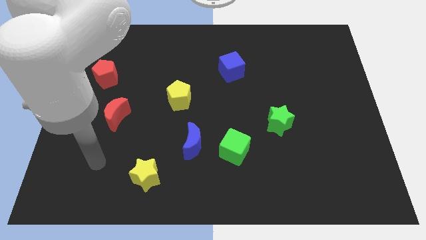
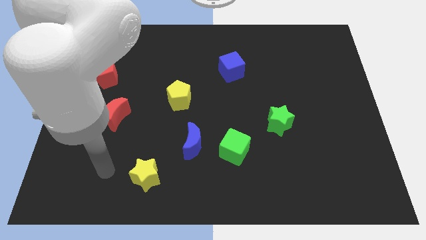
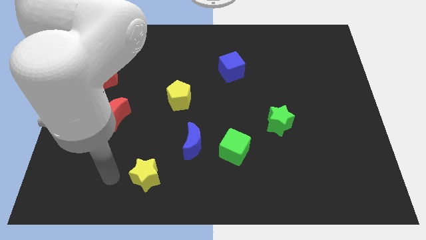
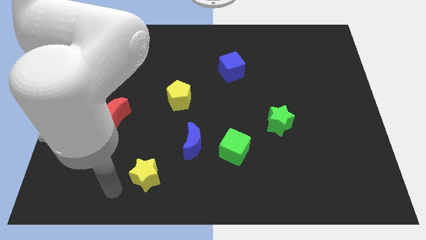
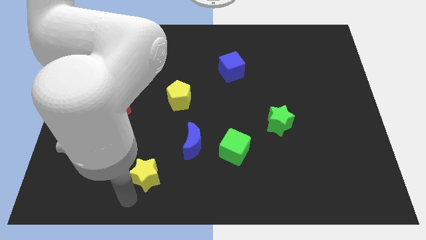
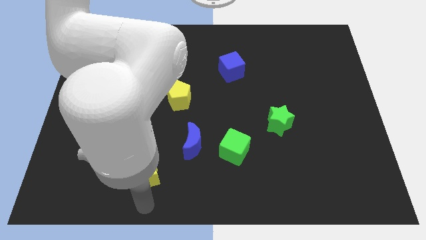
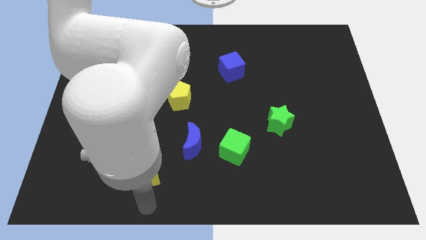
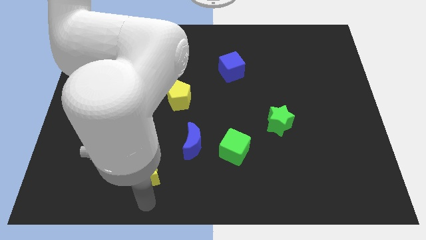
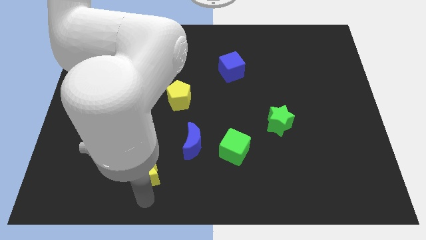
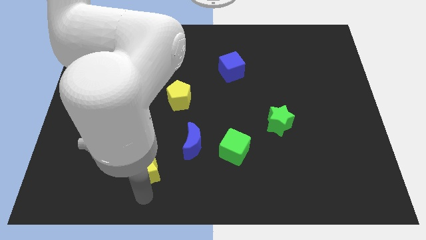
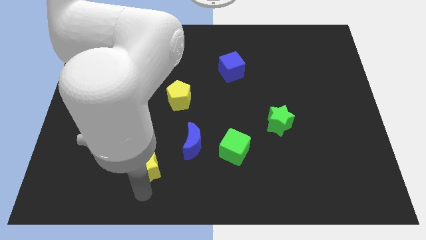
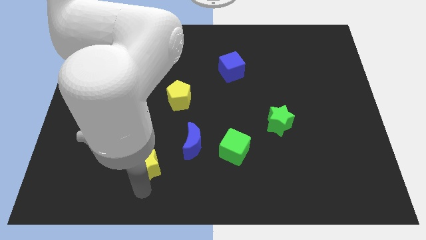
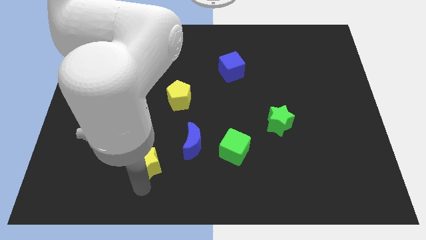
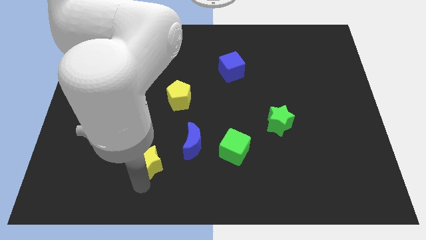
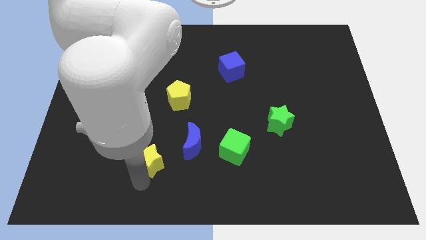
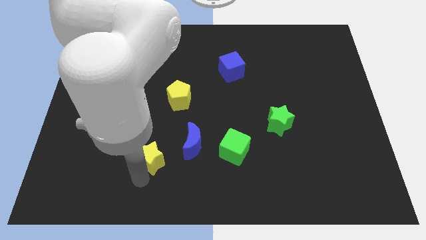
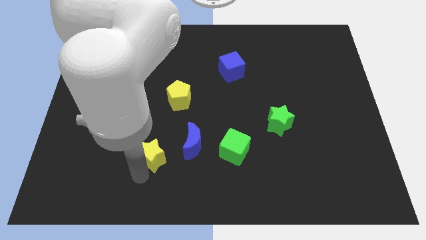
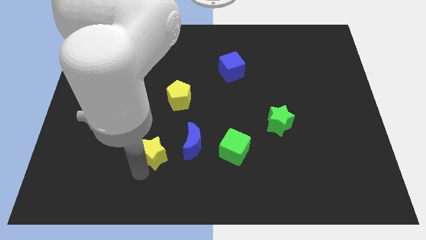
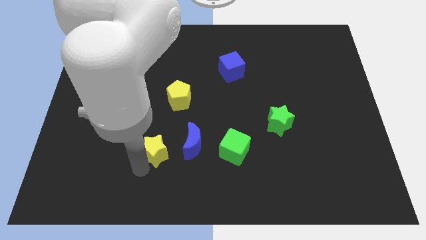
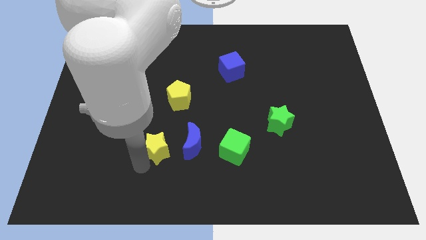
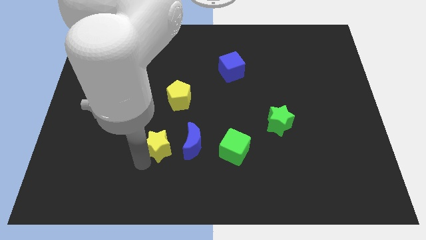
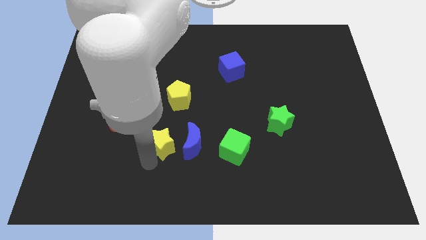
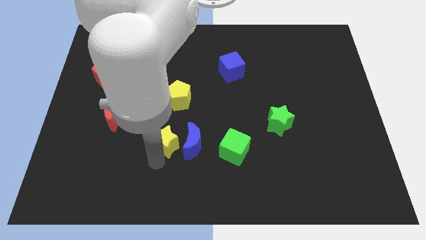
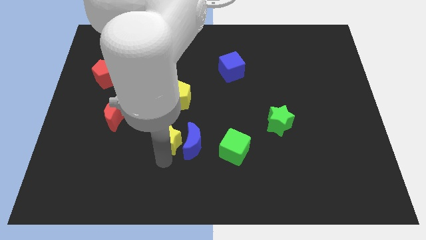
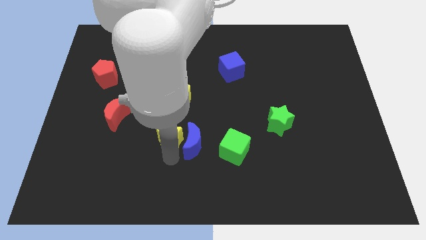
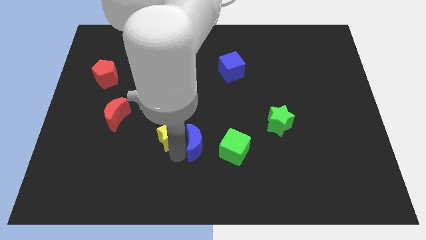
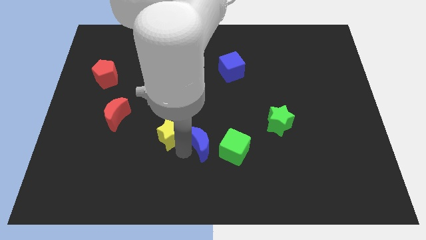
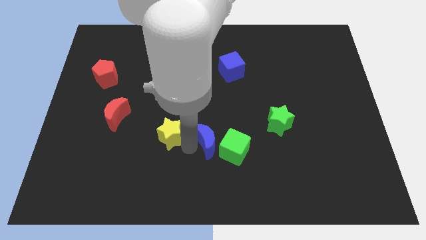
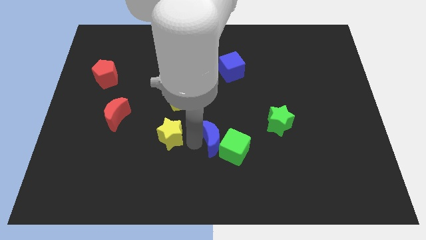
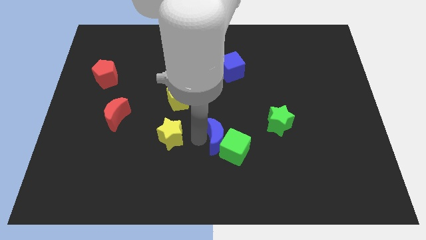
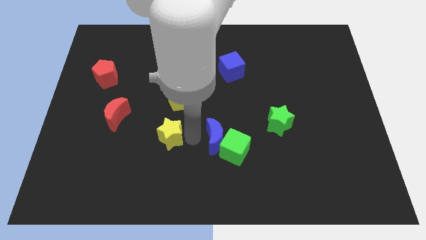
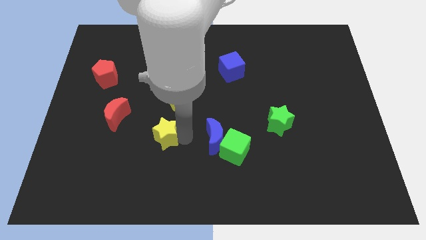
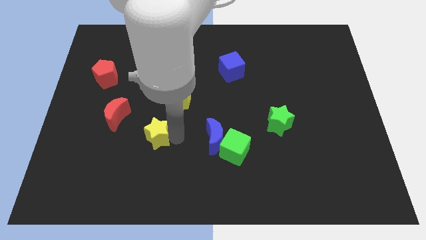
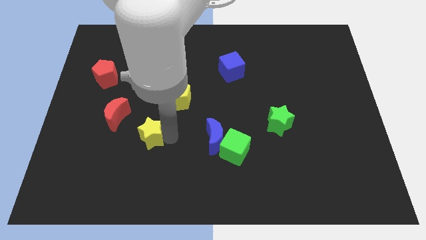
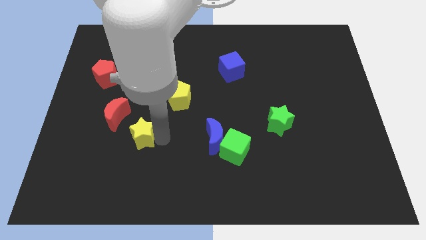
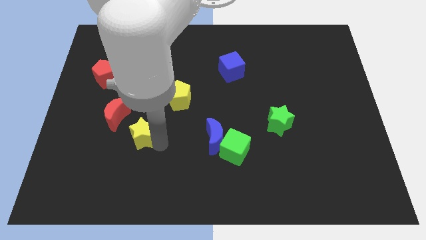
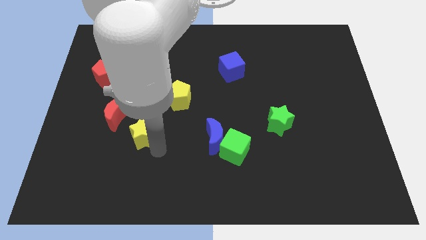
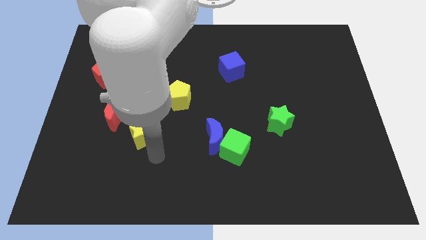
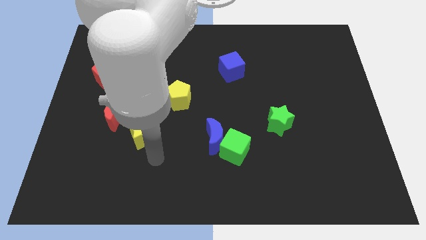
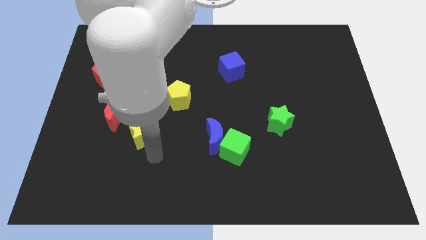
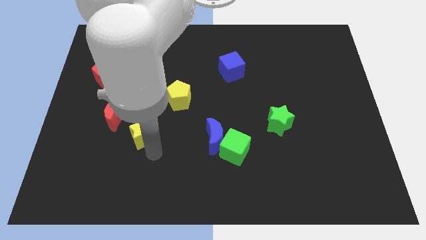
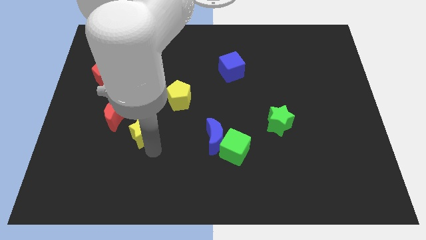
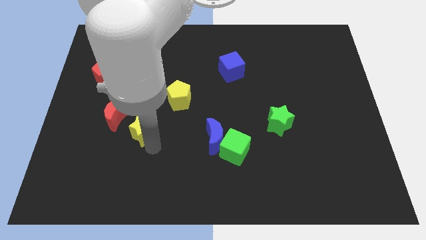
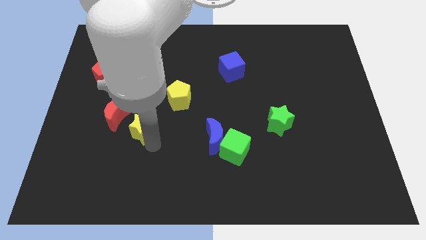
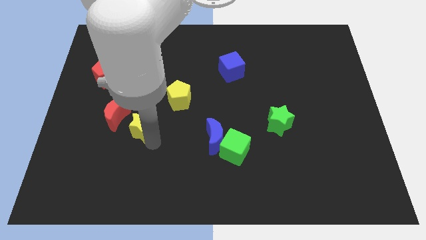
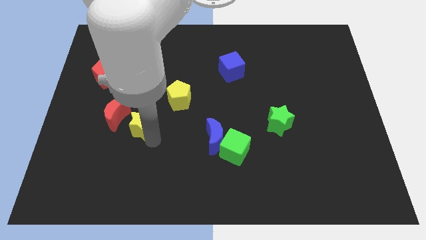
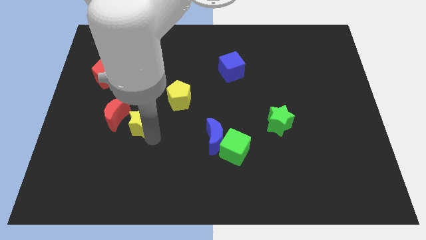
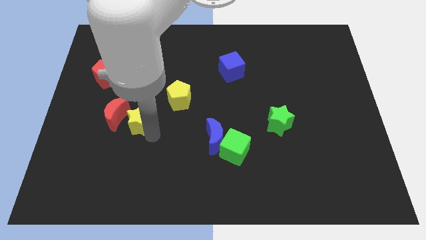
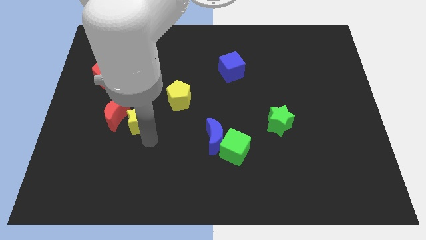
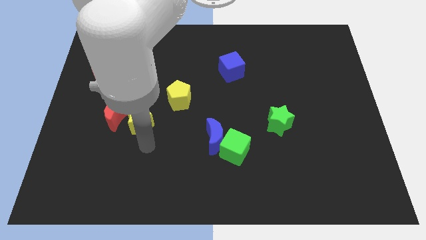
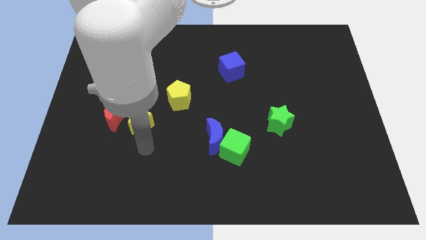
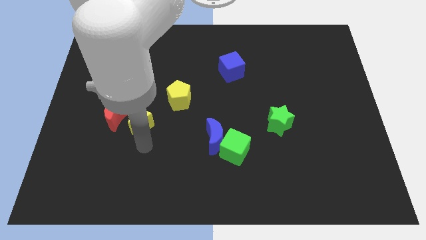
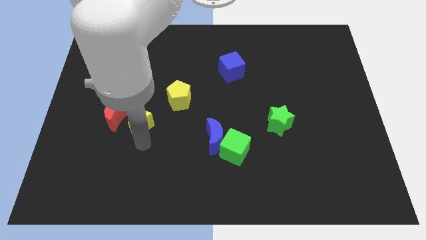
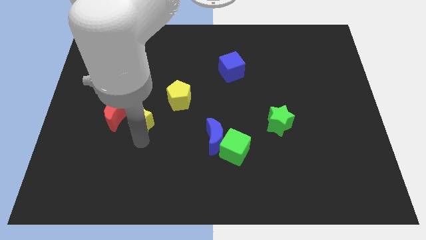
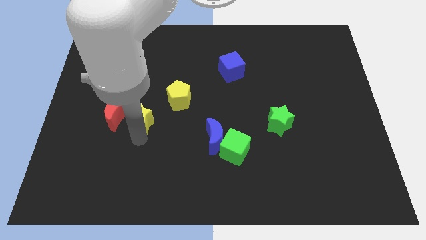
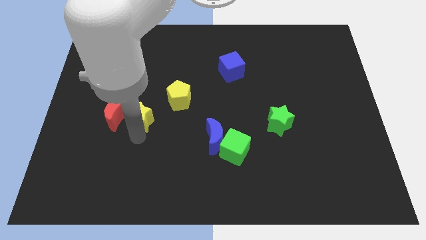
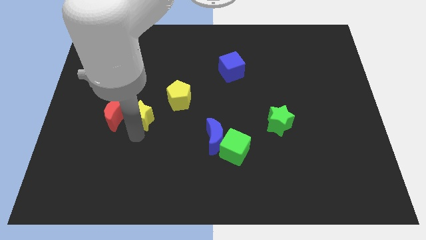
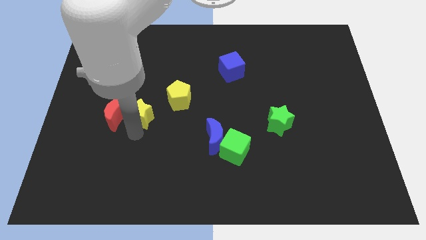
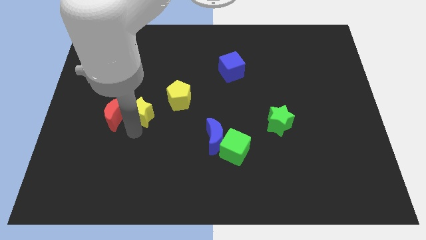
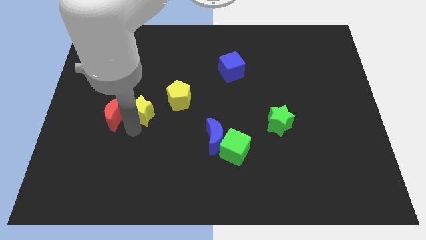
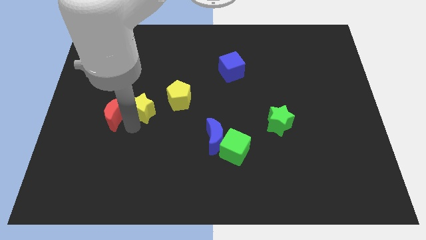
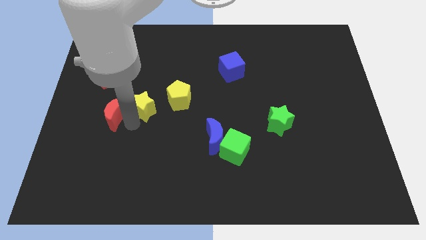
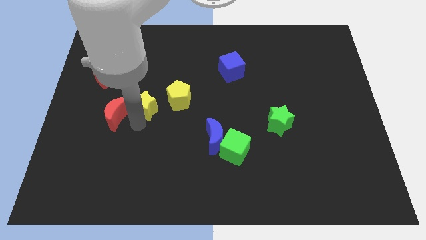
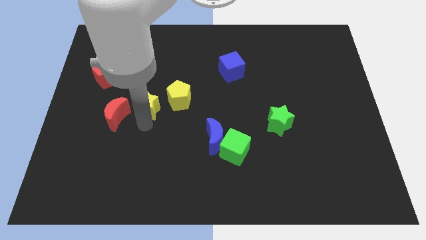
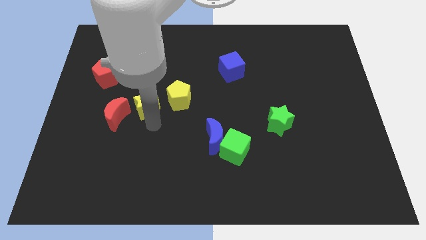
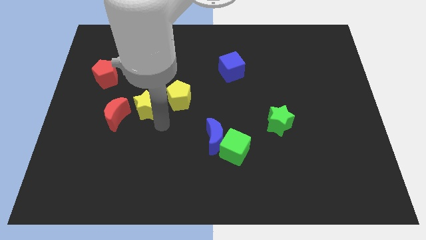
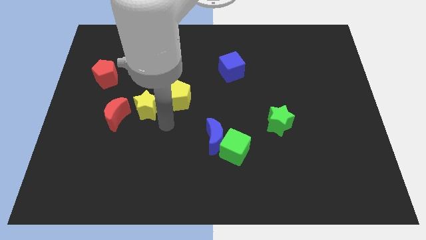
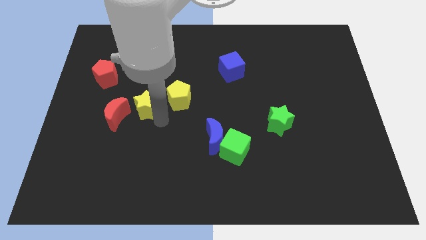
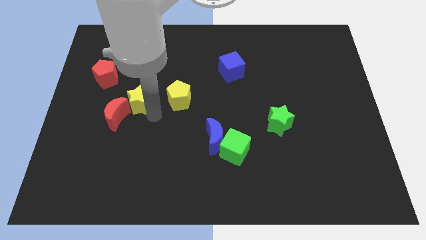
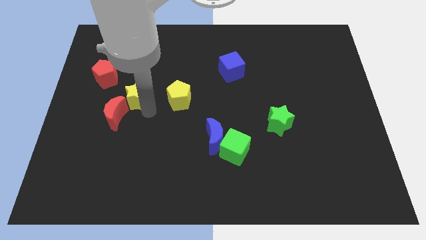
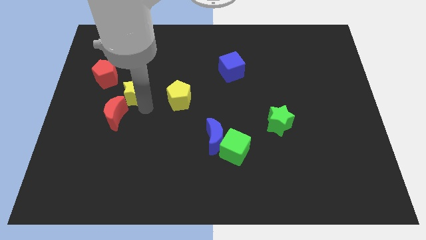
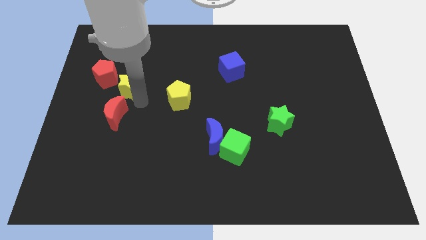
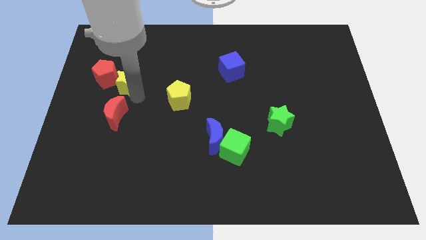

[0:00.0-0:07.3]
put the yellow star next to the red pentagon
